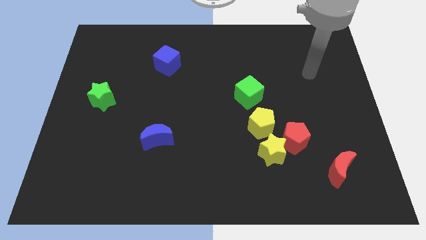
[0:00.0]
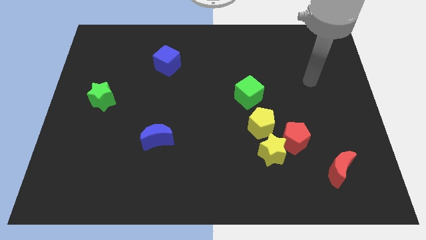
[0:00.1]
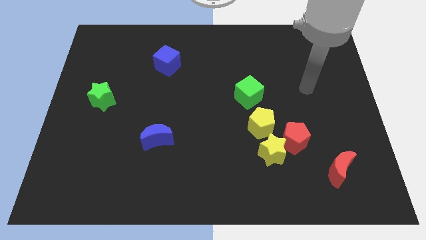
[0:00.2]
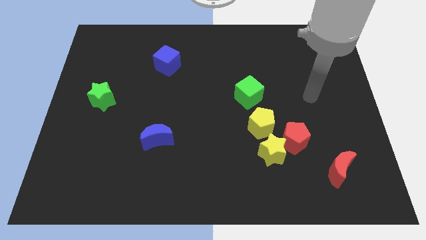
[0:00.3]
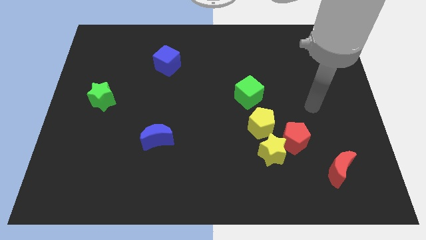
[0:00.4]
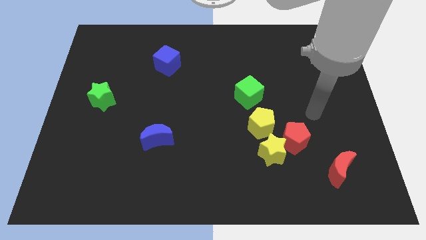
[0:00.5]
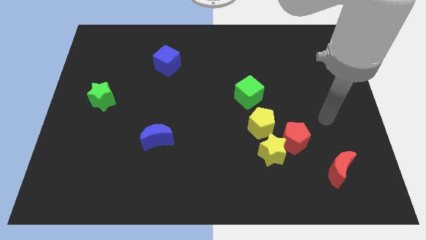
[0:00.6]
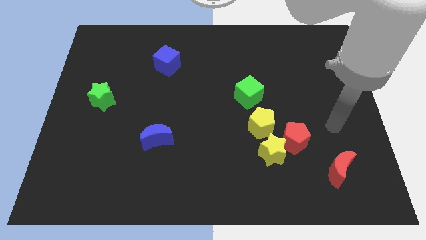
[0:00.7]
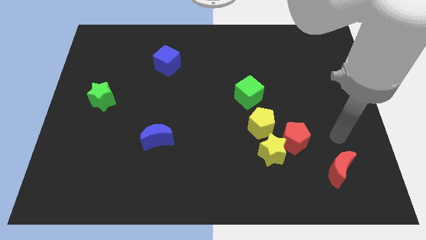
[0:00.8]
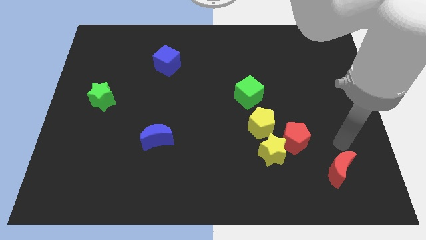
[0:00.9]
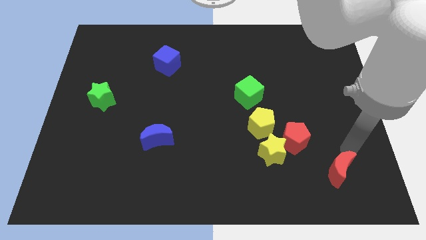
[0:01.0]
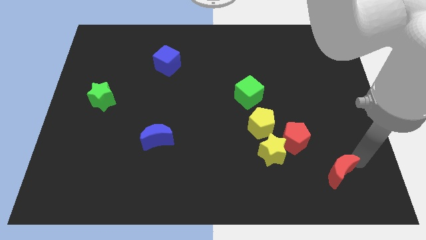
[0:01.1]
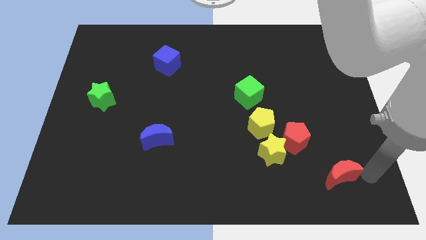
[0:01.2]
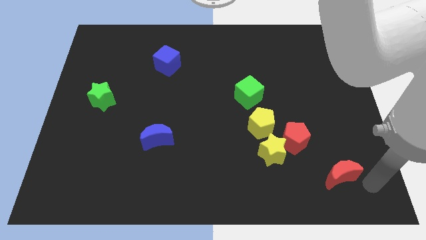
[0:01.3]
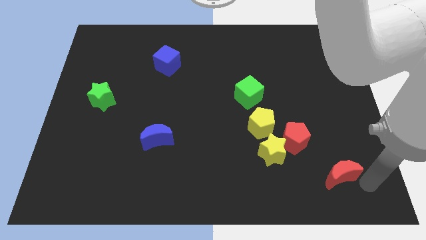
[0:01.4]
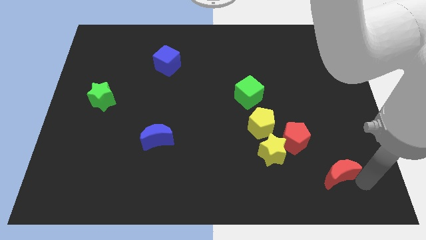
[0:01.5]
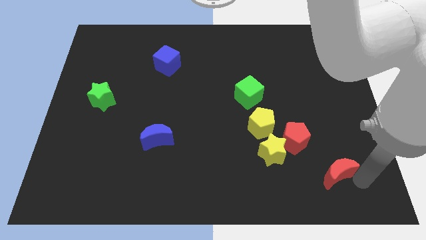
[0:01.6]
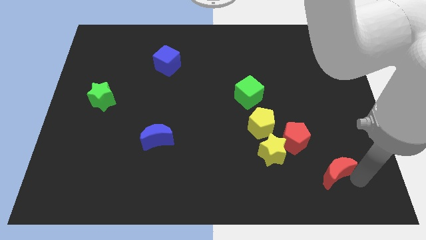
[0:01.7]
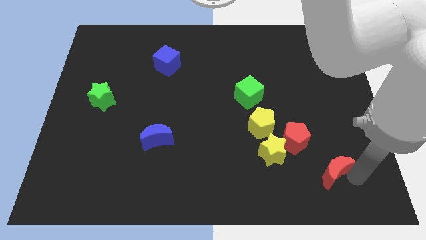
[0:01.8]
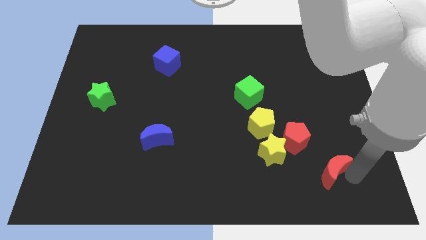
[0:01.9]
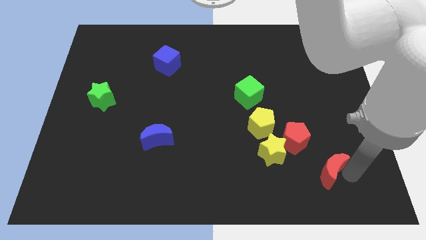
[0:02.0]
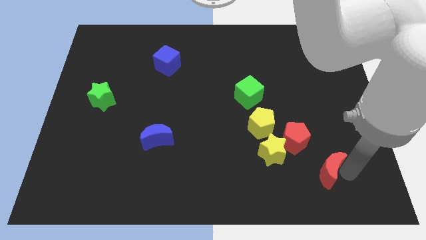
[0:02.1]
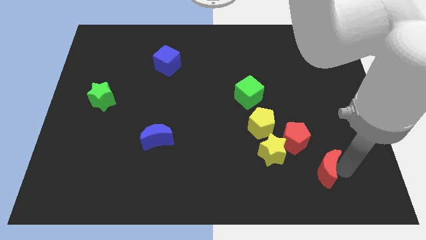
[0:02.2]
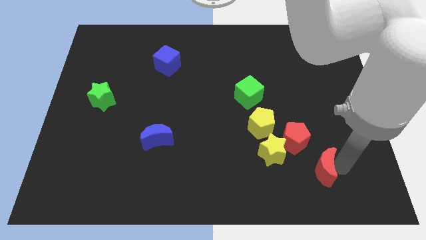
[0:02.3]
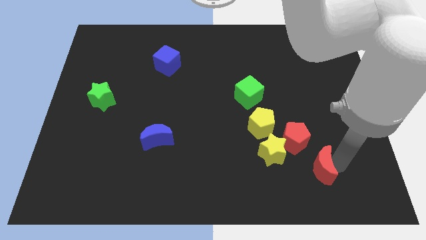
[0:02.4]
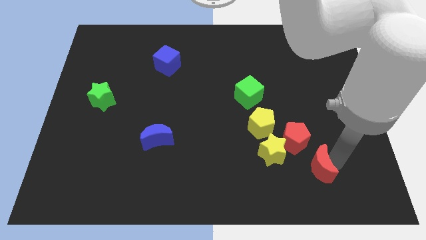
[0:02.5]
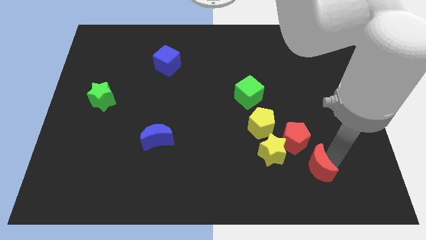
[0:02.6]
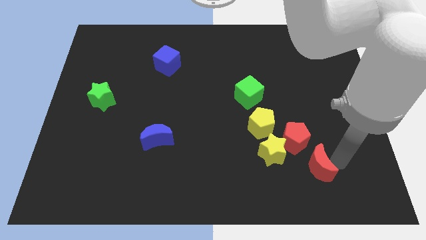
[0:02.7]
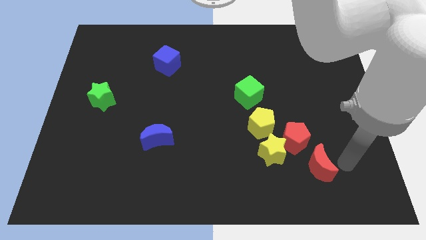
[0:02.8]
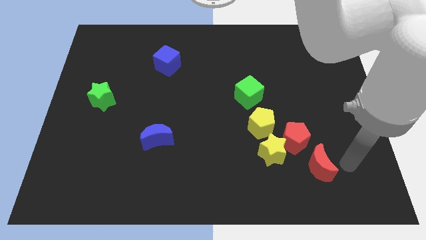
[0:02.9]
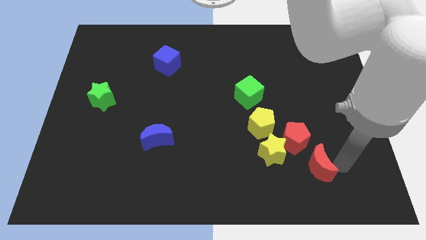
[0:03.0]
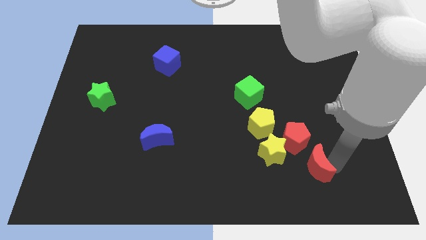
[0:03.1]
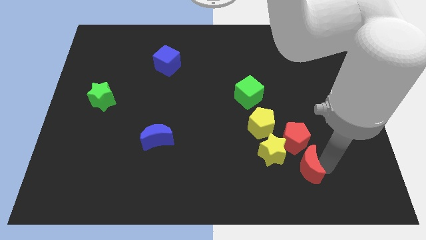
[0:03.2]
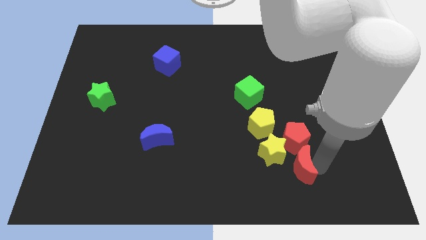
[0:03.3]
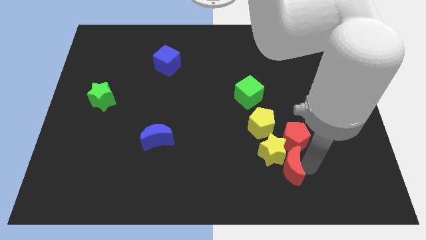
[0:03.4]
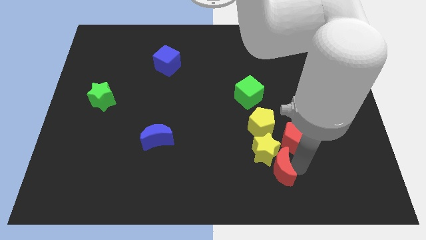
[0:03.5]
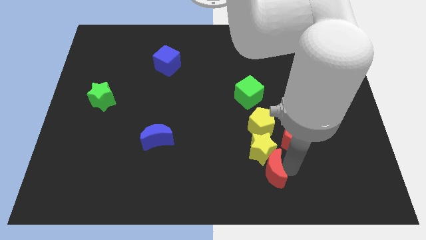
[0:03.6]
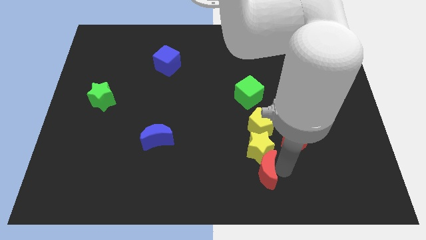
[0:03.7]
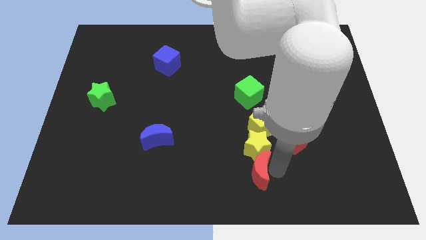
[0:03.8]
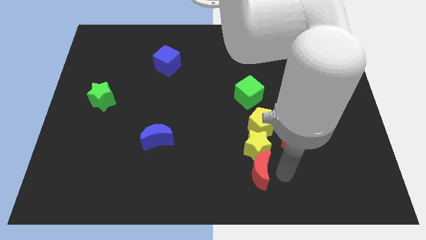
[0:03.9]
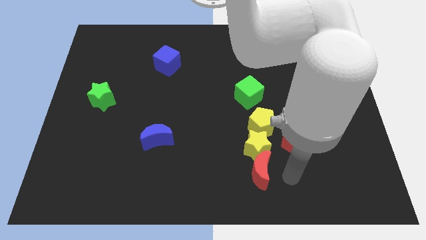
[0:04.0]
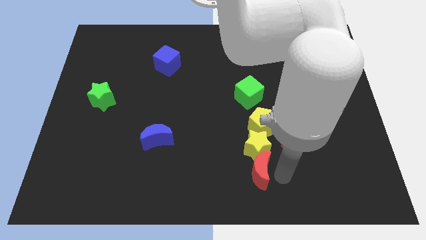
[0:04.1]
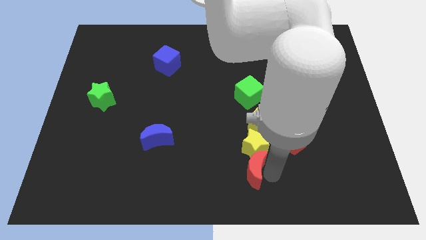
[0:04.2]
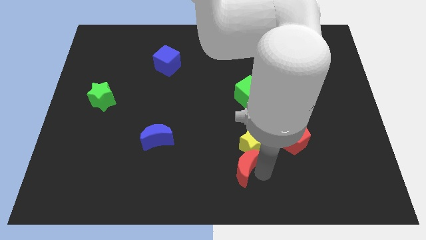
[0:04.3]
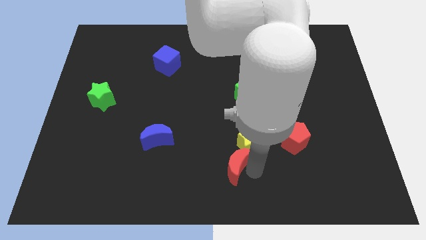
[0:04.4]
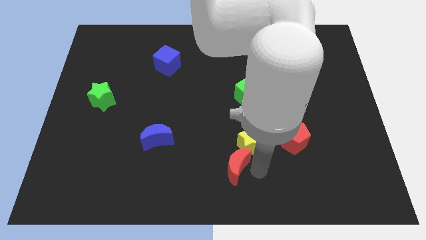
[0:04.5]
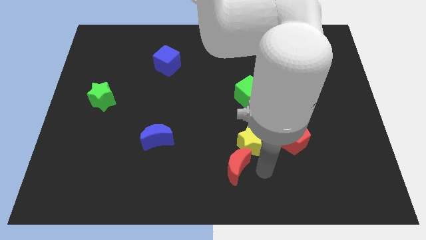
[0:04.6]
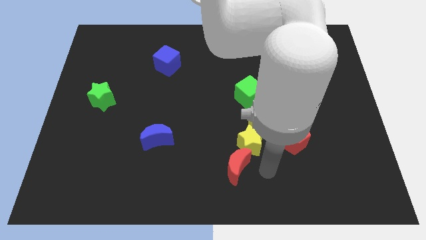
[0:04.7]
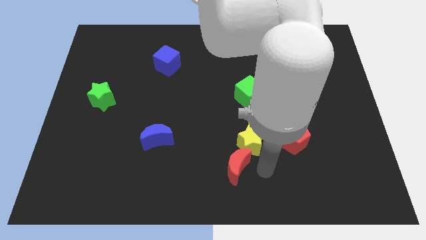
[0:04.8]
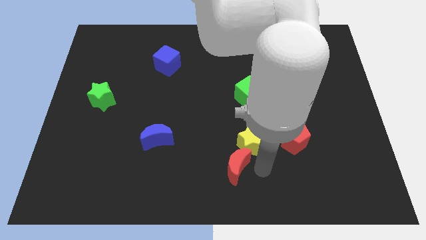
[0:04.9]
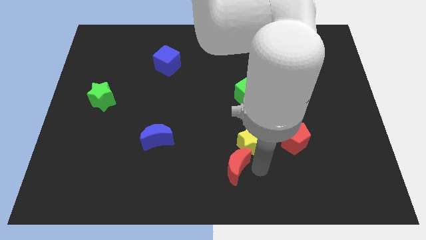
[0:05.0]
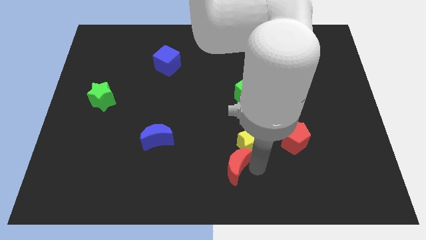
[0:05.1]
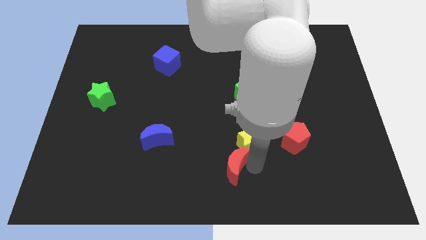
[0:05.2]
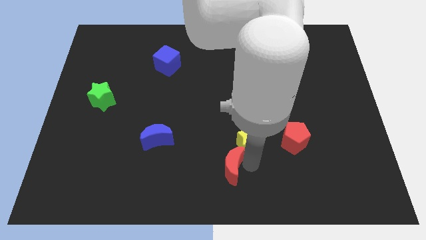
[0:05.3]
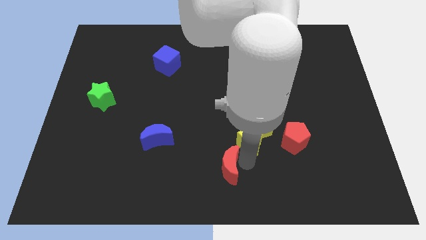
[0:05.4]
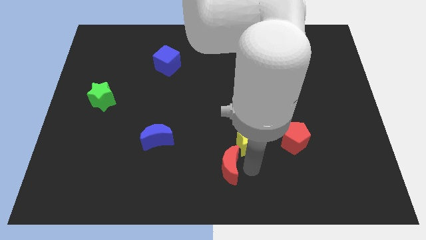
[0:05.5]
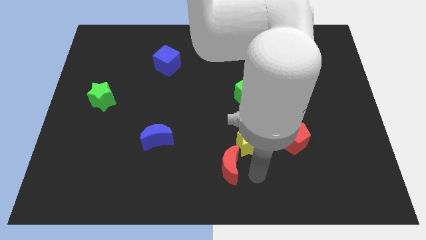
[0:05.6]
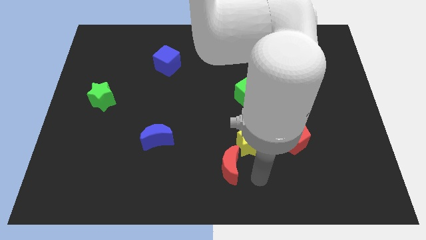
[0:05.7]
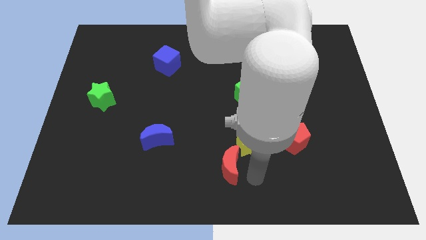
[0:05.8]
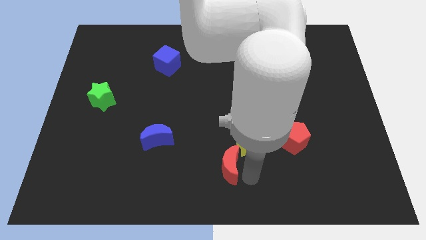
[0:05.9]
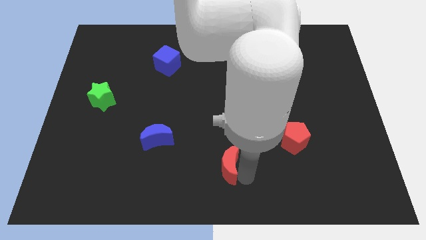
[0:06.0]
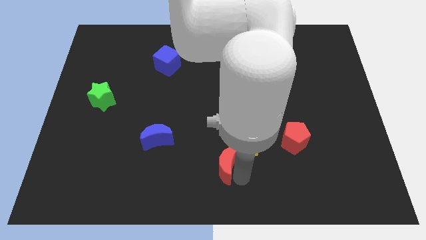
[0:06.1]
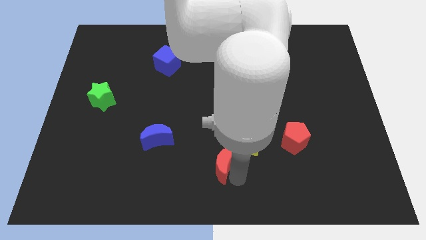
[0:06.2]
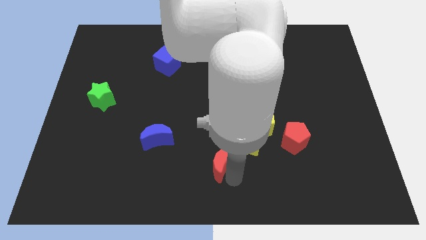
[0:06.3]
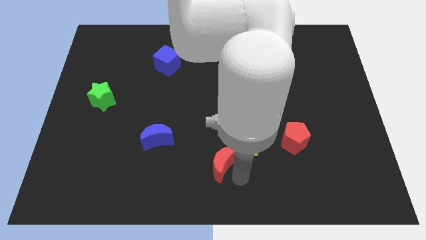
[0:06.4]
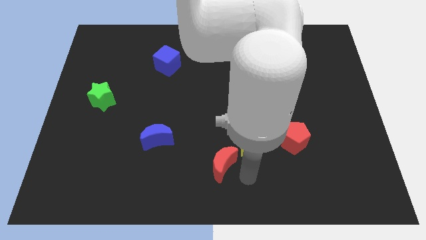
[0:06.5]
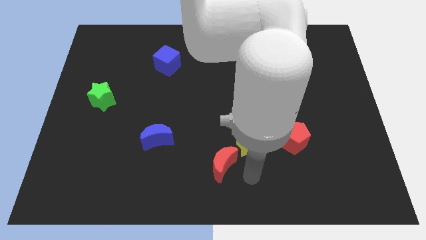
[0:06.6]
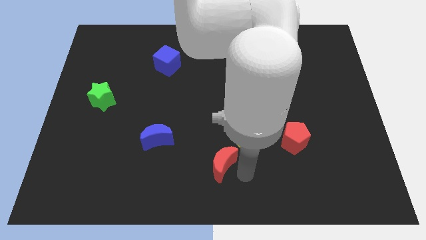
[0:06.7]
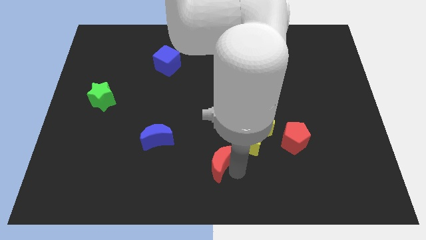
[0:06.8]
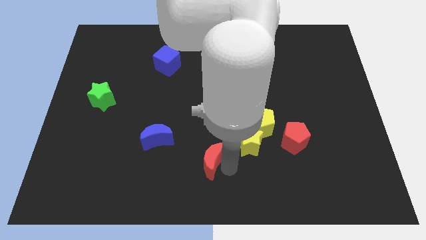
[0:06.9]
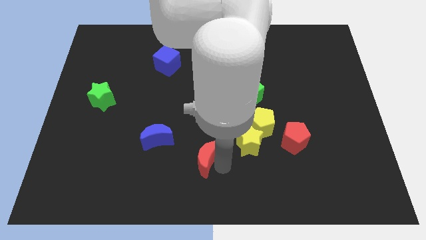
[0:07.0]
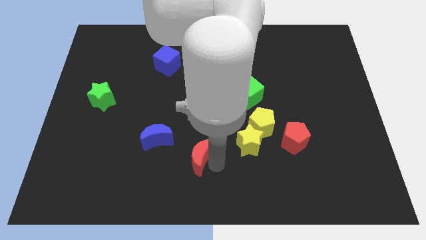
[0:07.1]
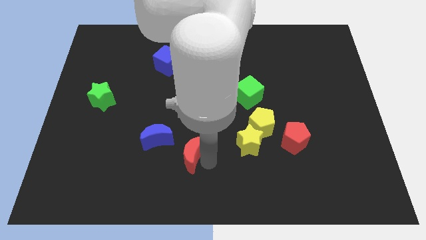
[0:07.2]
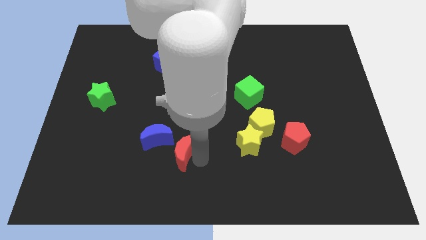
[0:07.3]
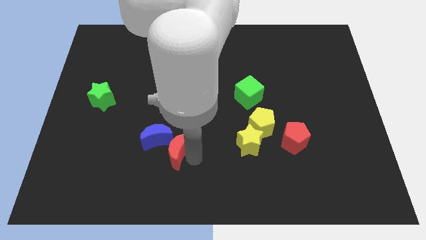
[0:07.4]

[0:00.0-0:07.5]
put the red moon to the blue moon
